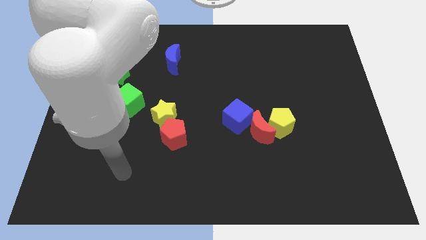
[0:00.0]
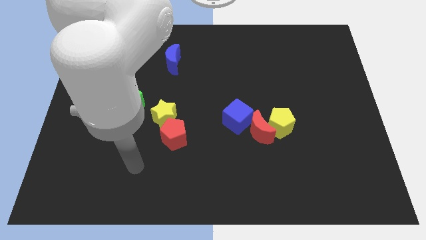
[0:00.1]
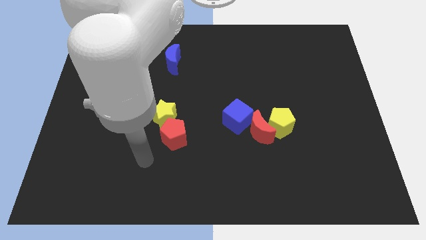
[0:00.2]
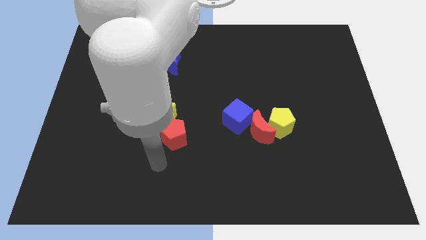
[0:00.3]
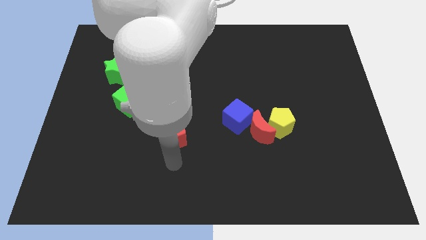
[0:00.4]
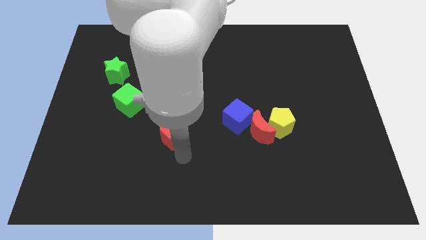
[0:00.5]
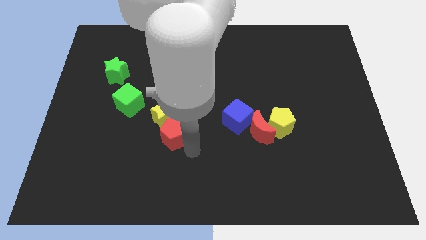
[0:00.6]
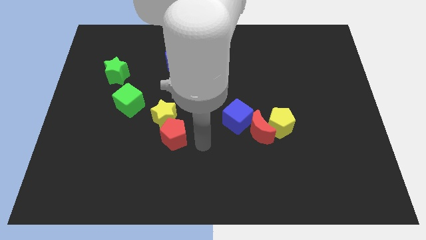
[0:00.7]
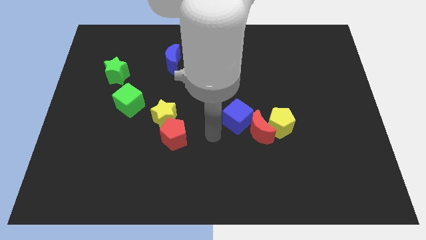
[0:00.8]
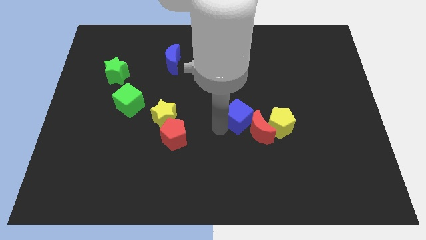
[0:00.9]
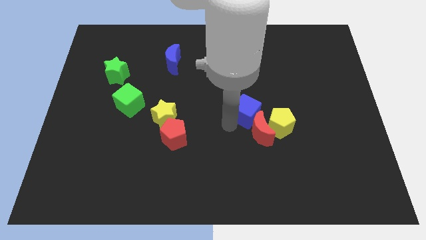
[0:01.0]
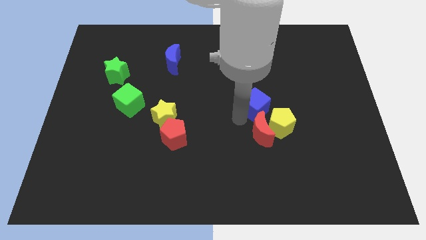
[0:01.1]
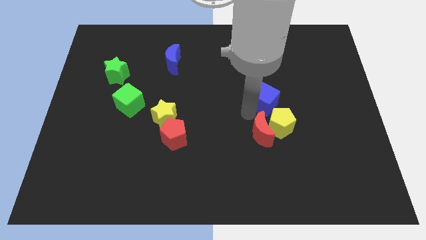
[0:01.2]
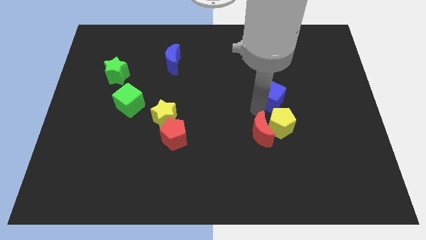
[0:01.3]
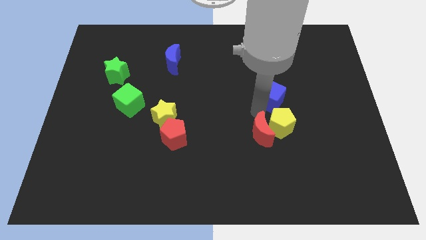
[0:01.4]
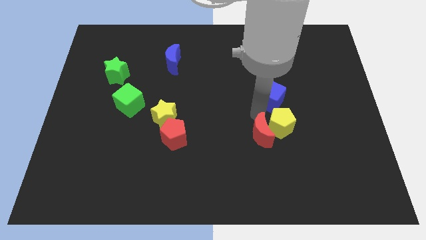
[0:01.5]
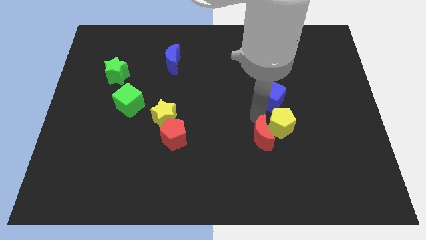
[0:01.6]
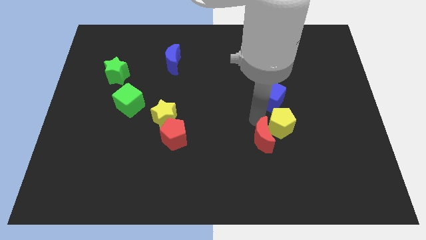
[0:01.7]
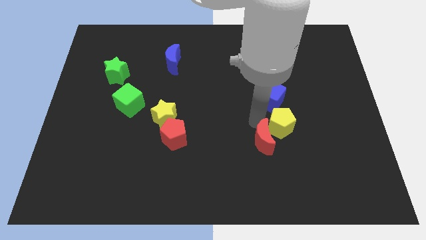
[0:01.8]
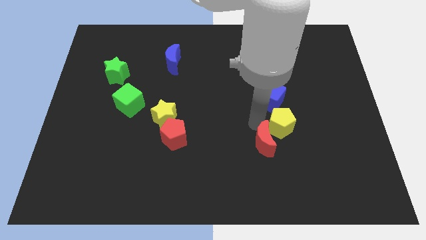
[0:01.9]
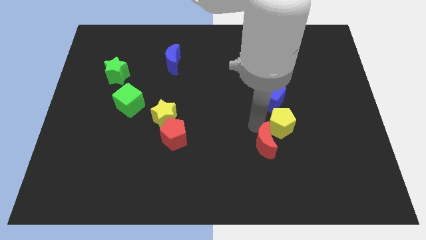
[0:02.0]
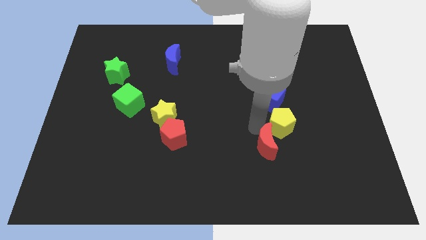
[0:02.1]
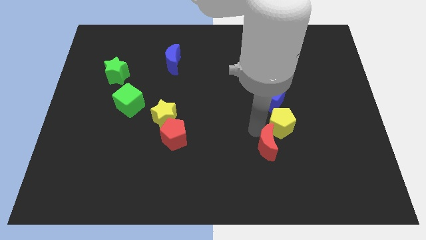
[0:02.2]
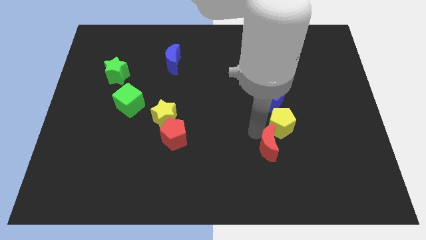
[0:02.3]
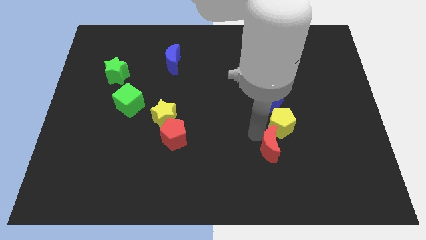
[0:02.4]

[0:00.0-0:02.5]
move the red moon away from the yellow pentagon and blue cube

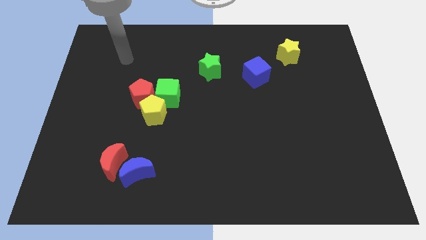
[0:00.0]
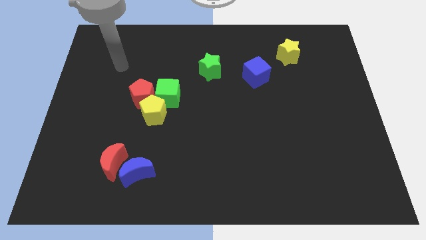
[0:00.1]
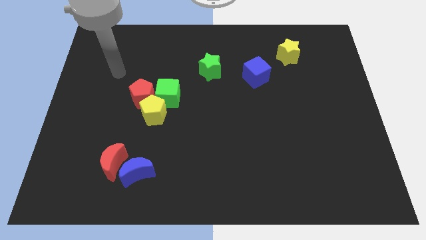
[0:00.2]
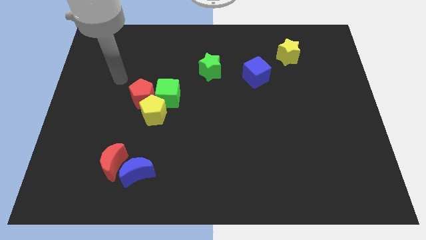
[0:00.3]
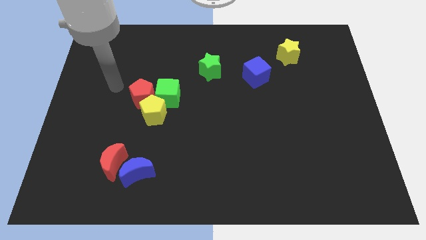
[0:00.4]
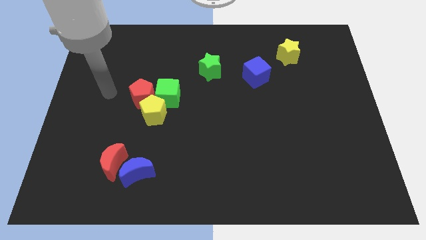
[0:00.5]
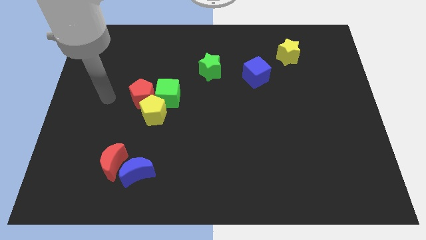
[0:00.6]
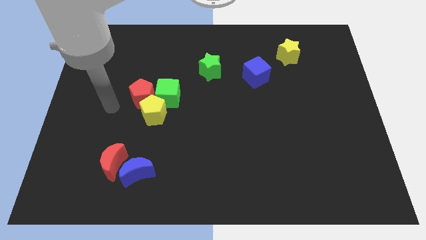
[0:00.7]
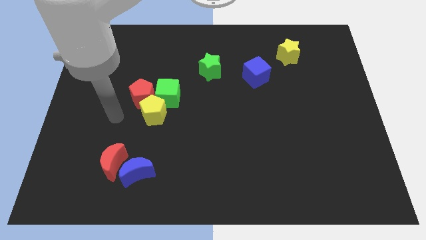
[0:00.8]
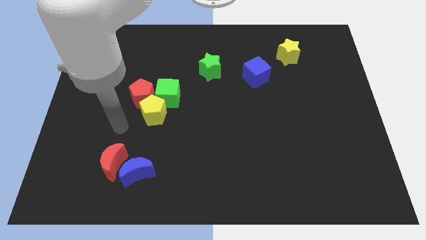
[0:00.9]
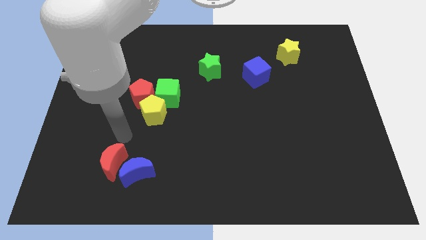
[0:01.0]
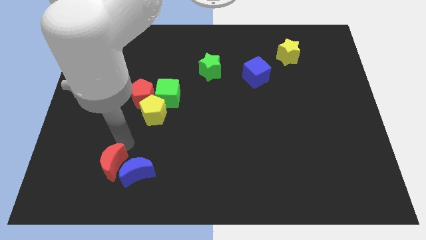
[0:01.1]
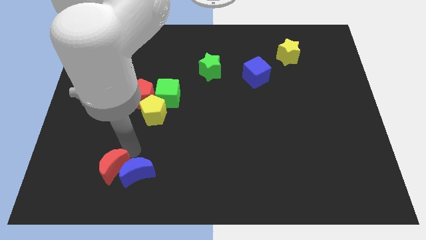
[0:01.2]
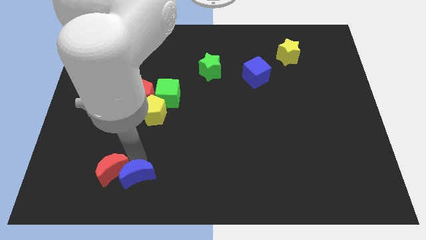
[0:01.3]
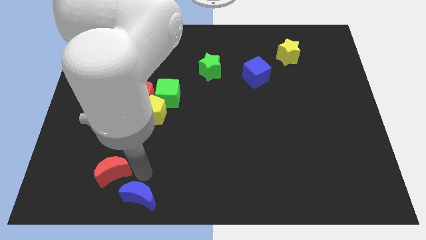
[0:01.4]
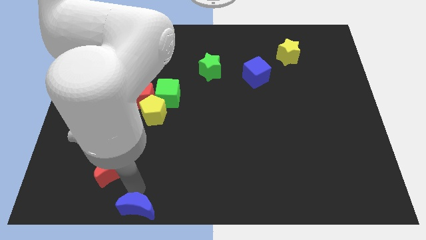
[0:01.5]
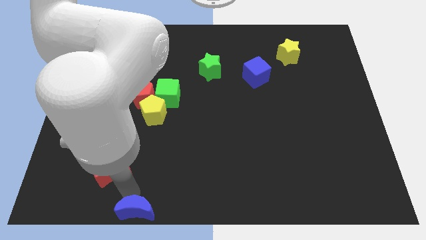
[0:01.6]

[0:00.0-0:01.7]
move the red moon away from the blue moon

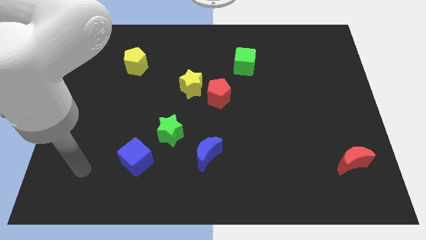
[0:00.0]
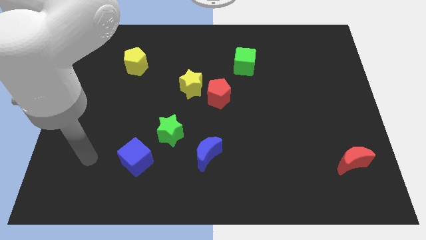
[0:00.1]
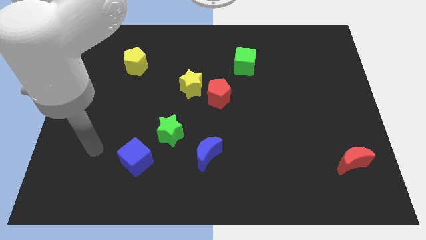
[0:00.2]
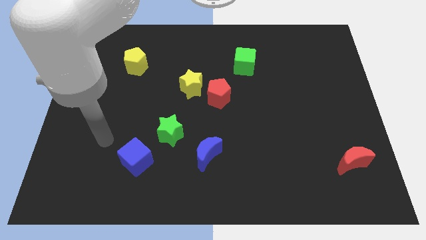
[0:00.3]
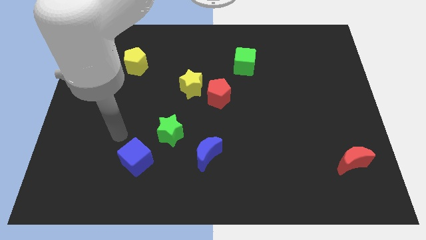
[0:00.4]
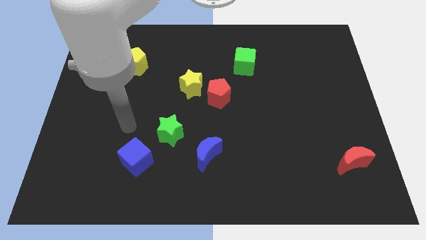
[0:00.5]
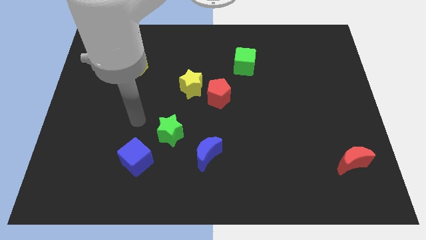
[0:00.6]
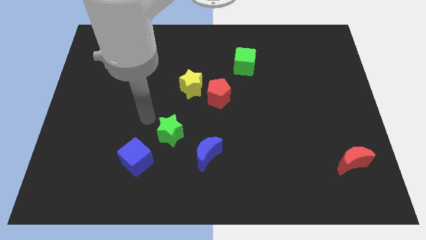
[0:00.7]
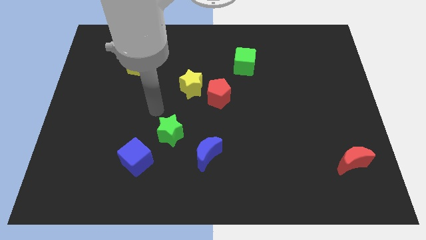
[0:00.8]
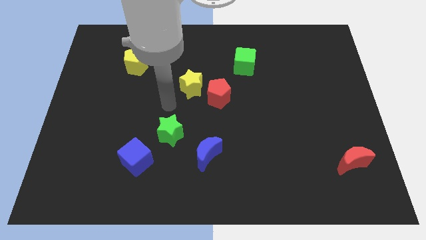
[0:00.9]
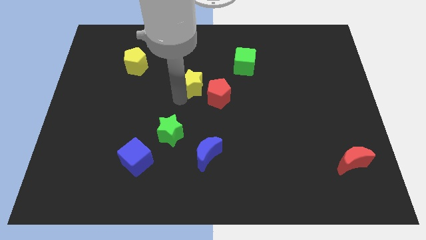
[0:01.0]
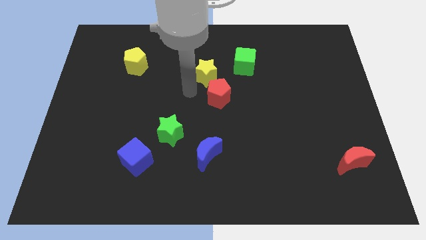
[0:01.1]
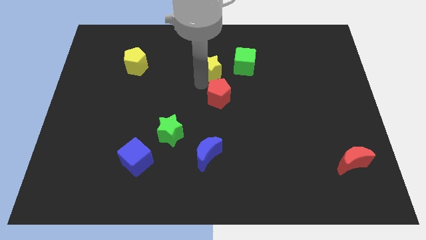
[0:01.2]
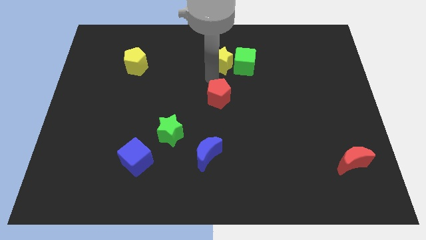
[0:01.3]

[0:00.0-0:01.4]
separate the red pentagon from the yellow star

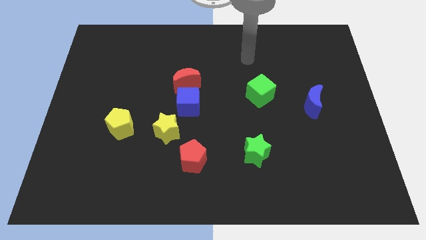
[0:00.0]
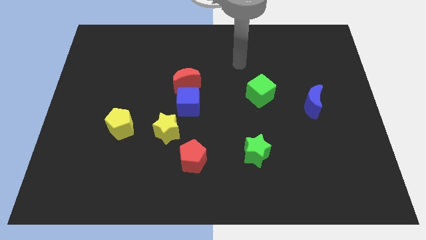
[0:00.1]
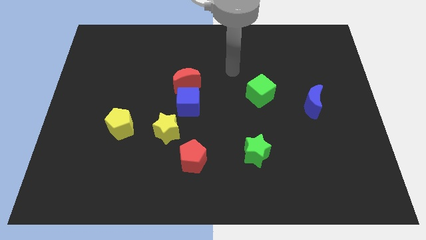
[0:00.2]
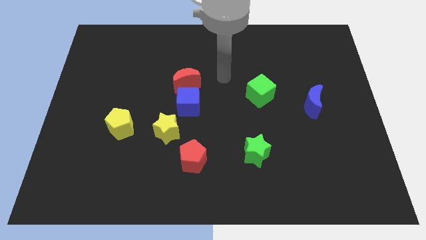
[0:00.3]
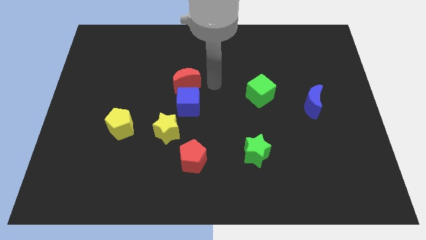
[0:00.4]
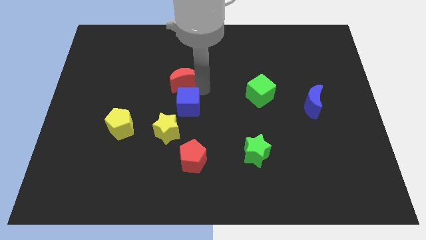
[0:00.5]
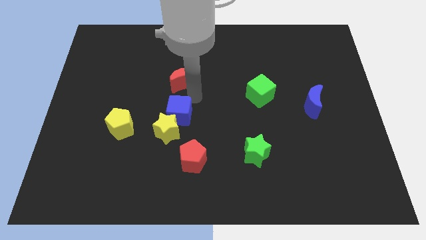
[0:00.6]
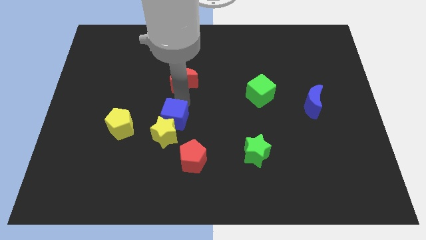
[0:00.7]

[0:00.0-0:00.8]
pull the red moon apart from the blue cube

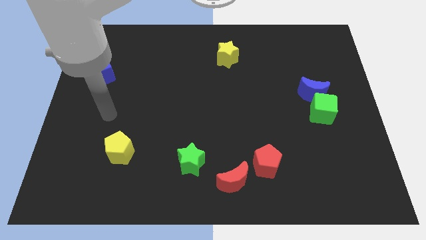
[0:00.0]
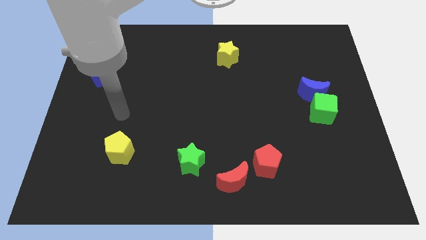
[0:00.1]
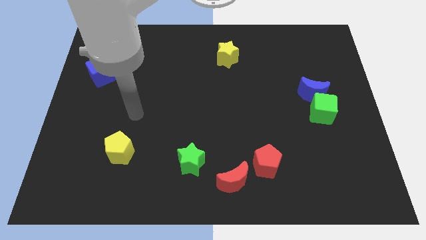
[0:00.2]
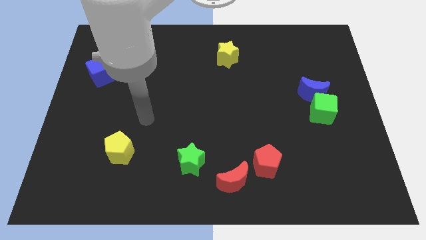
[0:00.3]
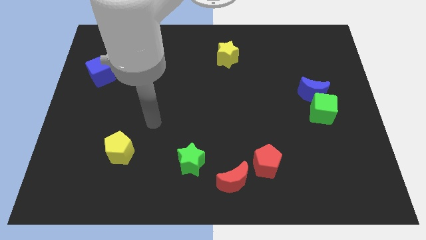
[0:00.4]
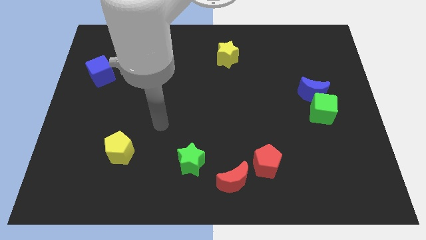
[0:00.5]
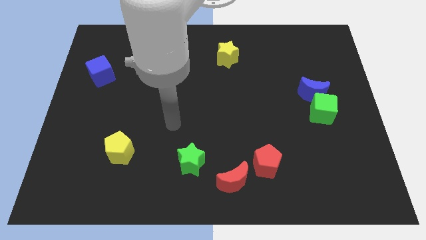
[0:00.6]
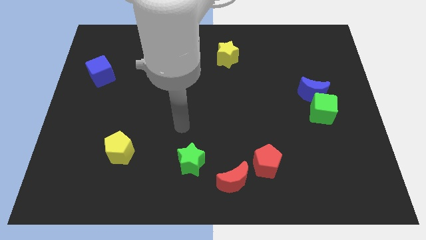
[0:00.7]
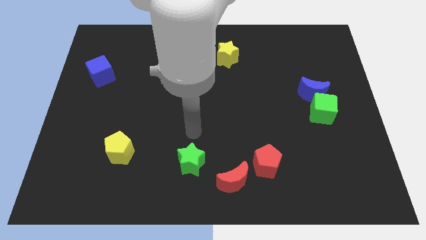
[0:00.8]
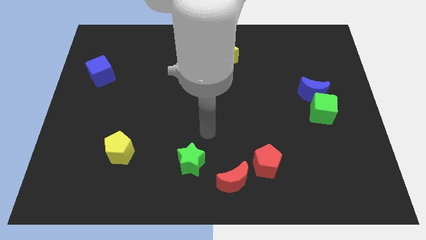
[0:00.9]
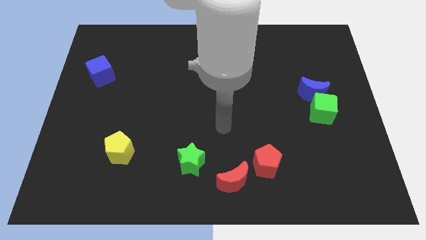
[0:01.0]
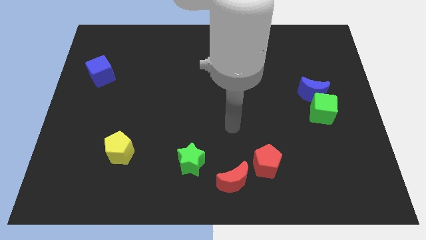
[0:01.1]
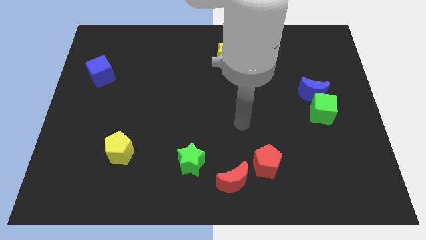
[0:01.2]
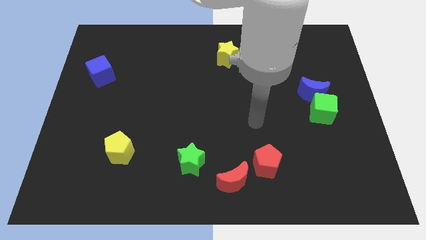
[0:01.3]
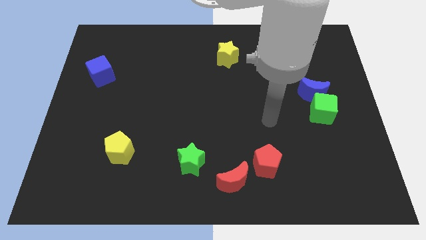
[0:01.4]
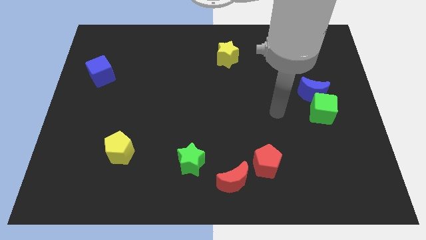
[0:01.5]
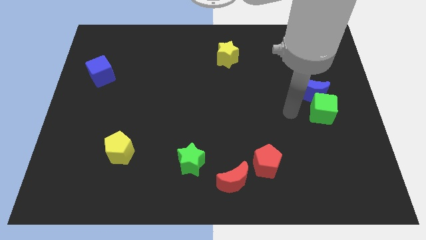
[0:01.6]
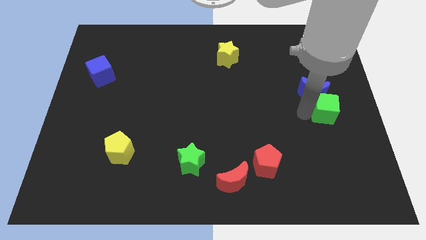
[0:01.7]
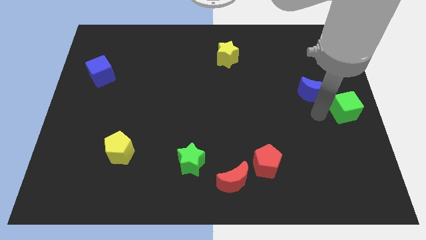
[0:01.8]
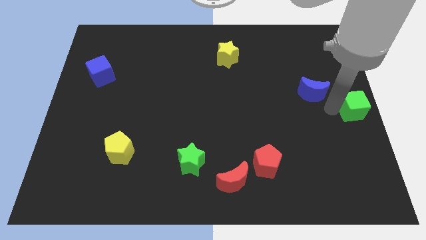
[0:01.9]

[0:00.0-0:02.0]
separate the blue moon from the green cube

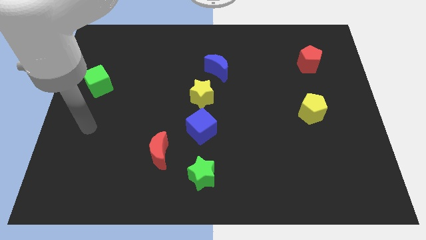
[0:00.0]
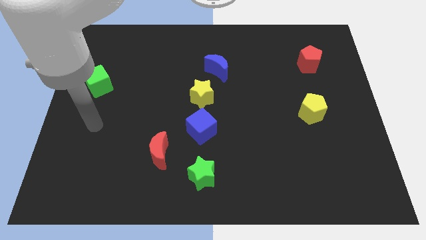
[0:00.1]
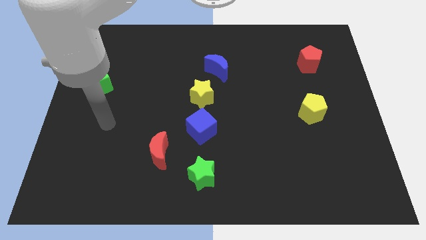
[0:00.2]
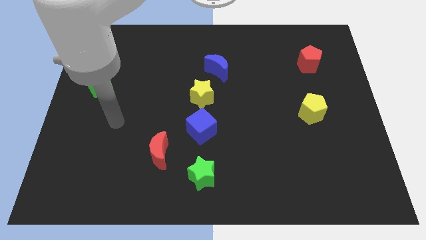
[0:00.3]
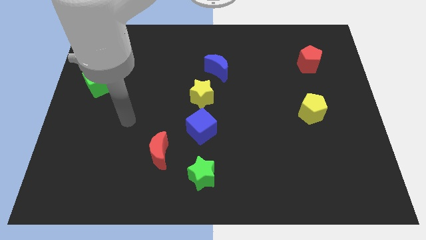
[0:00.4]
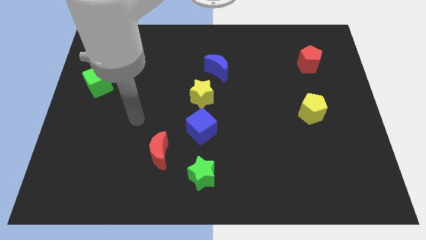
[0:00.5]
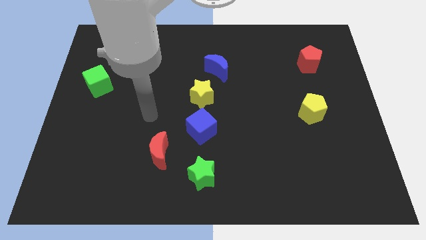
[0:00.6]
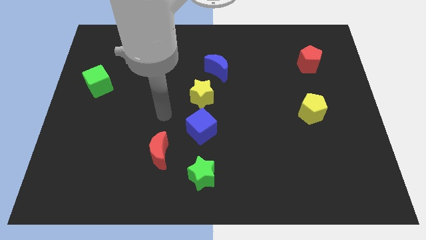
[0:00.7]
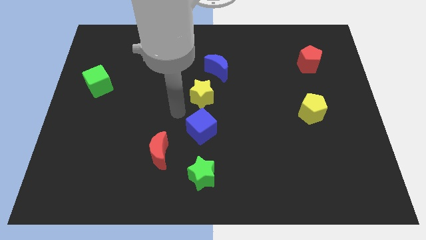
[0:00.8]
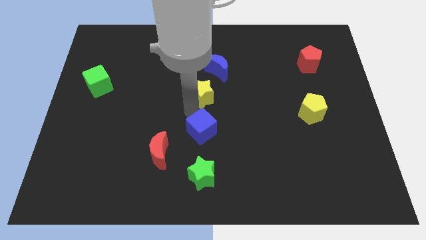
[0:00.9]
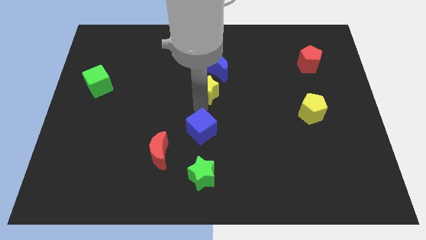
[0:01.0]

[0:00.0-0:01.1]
move the blue cube away from the yellow star
